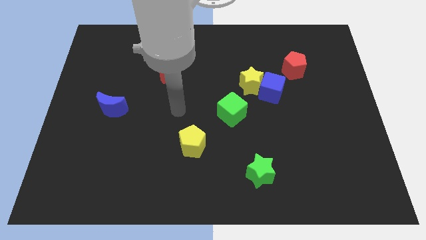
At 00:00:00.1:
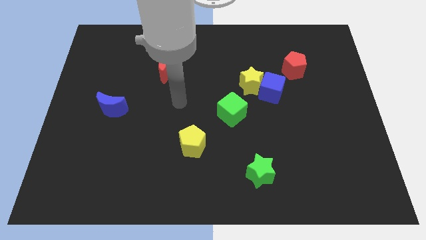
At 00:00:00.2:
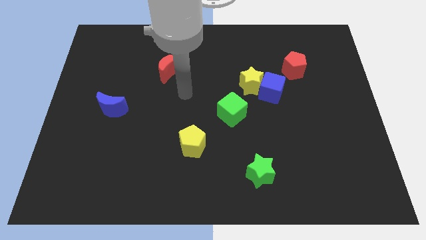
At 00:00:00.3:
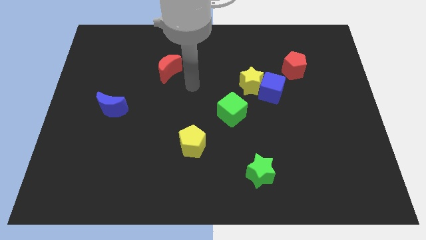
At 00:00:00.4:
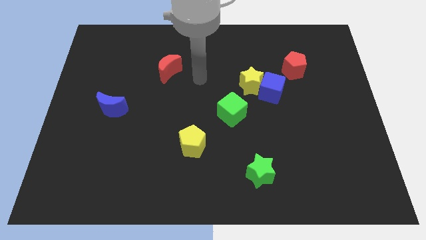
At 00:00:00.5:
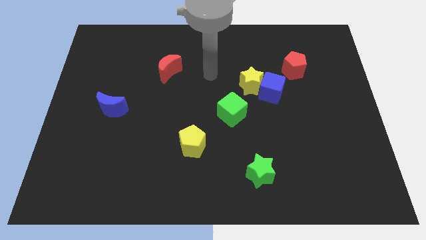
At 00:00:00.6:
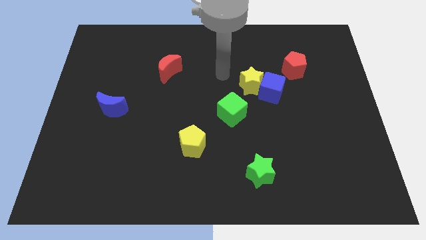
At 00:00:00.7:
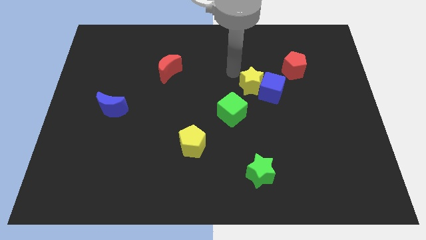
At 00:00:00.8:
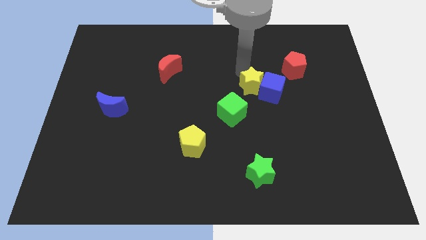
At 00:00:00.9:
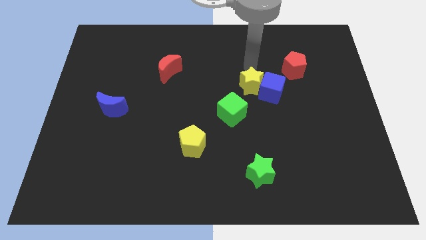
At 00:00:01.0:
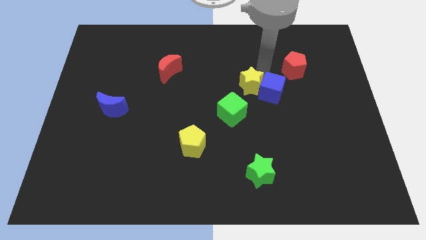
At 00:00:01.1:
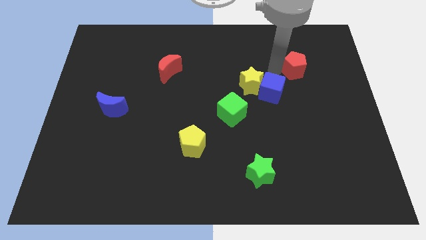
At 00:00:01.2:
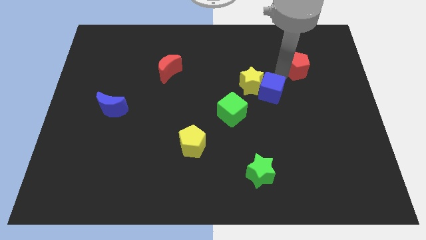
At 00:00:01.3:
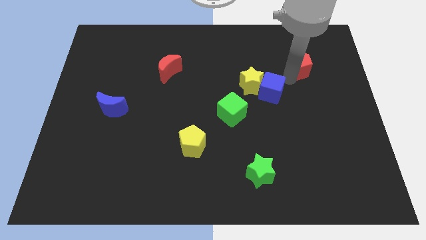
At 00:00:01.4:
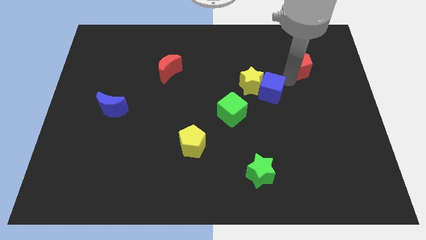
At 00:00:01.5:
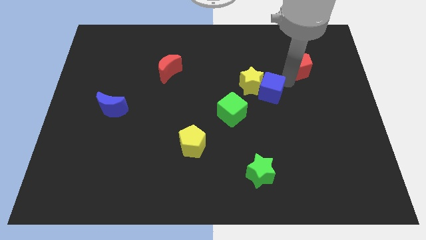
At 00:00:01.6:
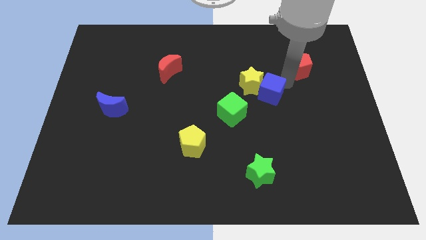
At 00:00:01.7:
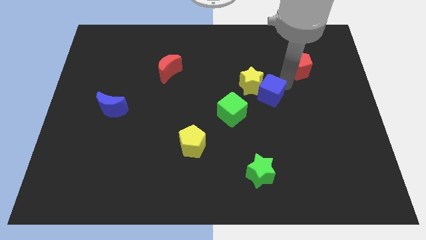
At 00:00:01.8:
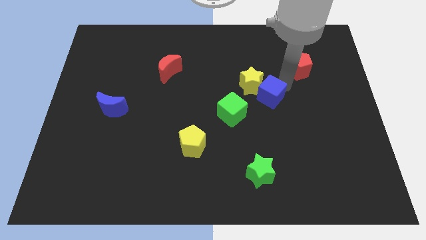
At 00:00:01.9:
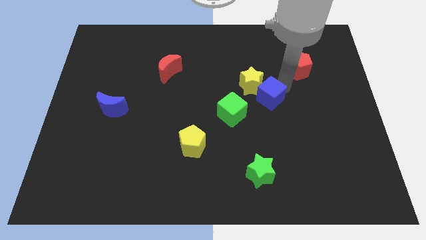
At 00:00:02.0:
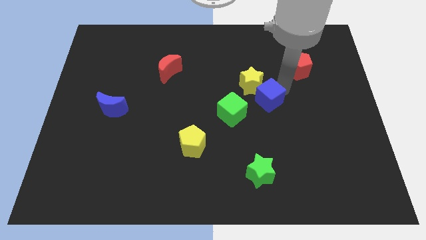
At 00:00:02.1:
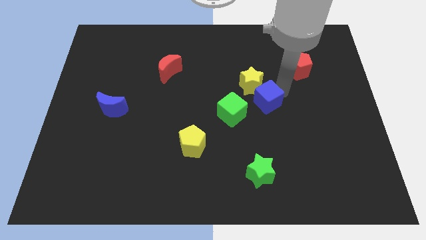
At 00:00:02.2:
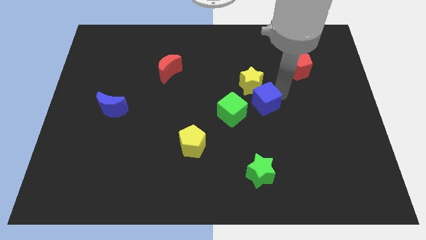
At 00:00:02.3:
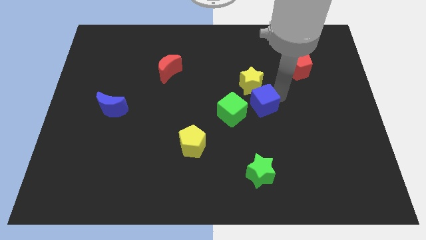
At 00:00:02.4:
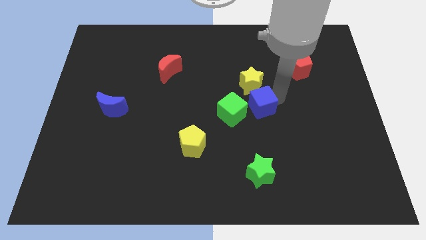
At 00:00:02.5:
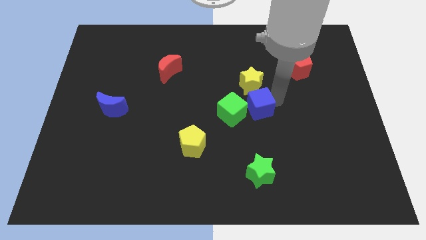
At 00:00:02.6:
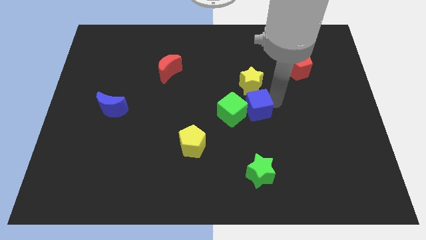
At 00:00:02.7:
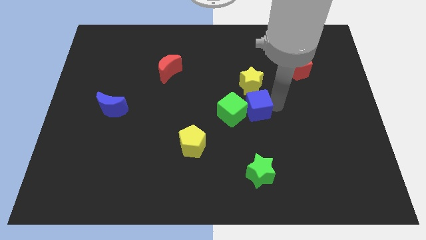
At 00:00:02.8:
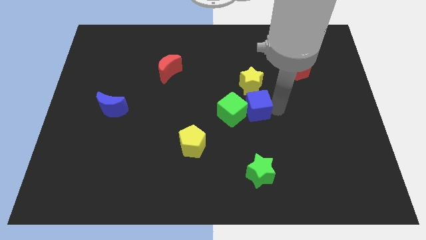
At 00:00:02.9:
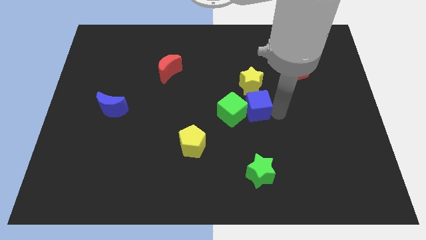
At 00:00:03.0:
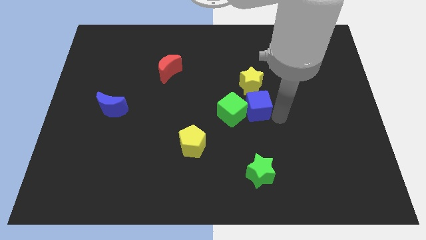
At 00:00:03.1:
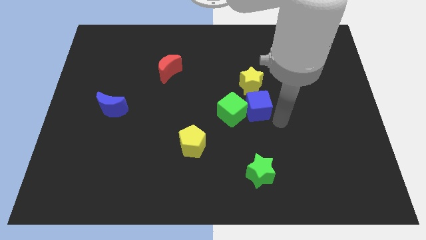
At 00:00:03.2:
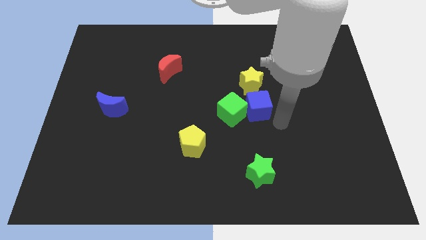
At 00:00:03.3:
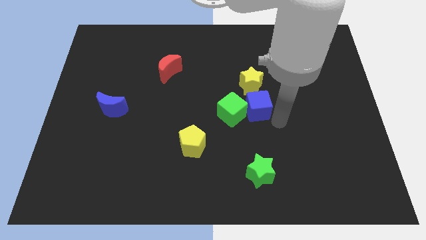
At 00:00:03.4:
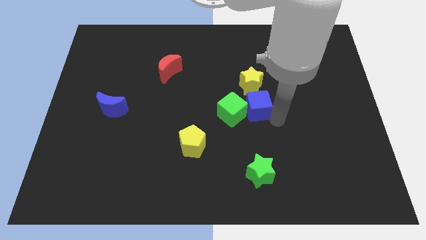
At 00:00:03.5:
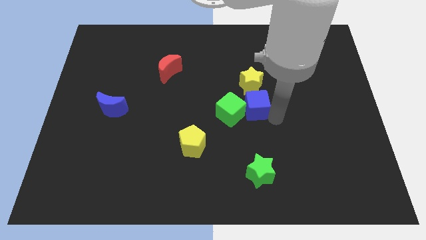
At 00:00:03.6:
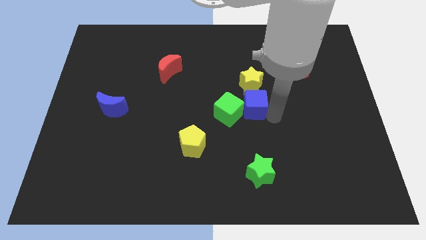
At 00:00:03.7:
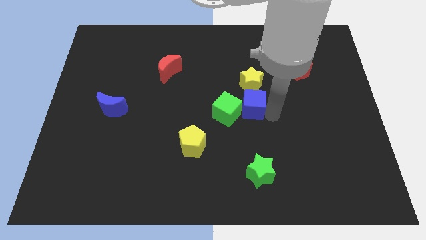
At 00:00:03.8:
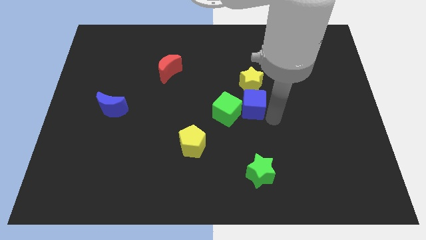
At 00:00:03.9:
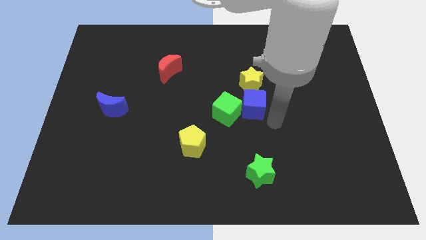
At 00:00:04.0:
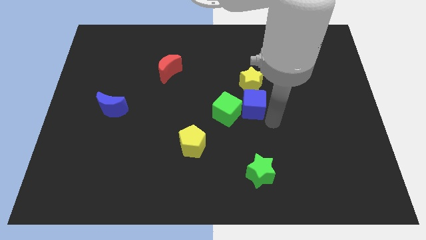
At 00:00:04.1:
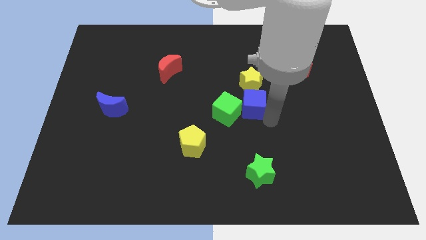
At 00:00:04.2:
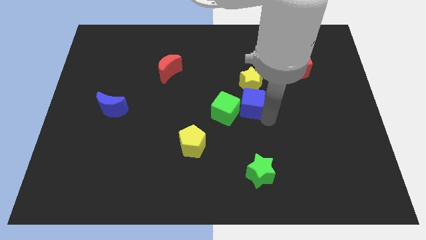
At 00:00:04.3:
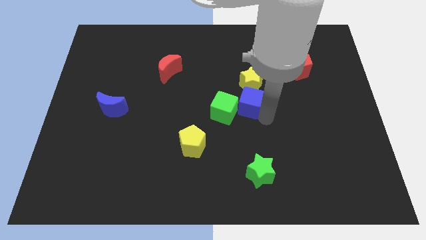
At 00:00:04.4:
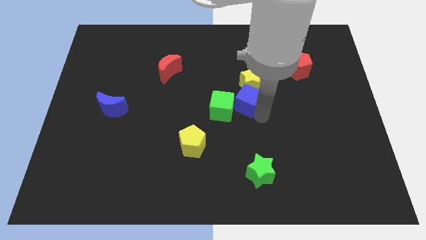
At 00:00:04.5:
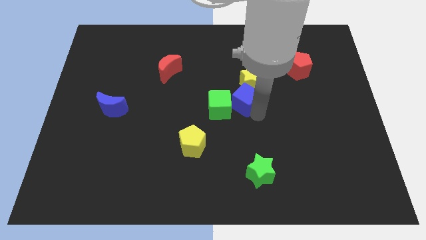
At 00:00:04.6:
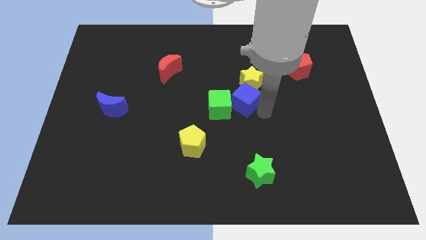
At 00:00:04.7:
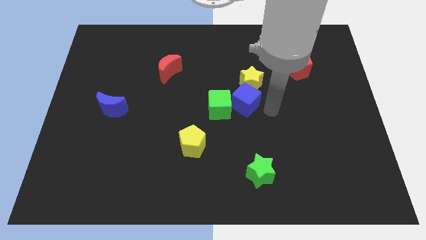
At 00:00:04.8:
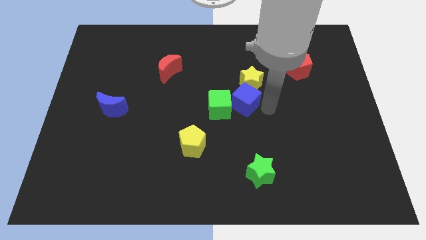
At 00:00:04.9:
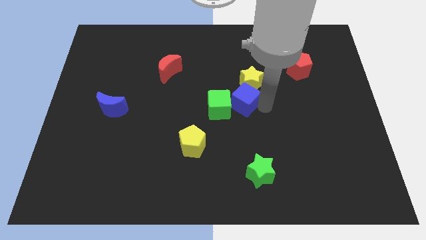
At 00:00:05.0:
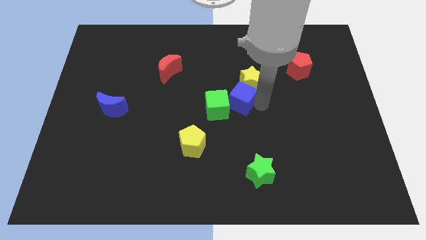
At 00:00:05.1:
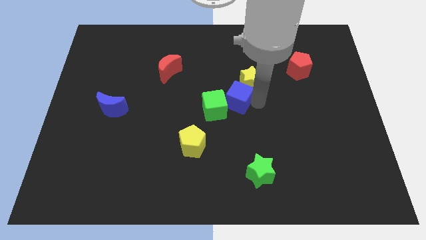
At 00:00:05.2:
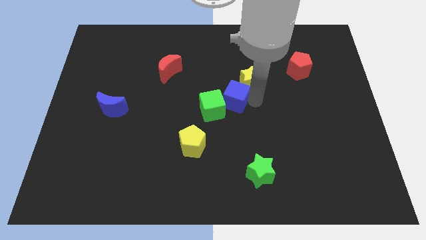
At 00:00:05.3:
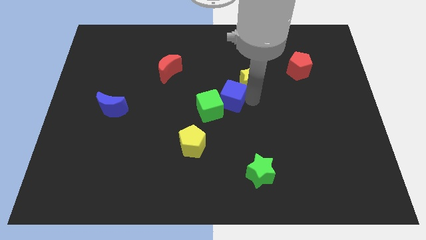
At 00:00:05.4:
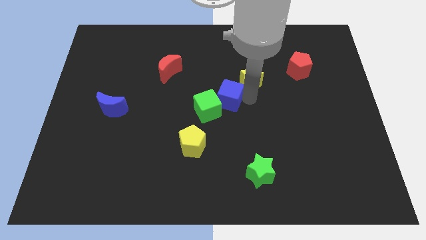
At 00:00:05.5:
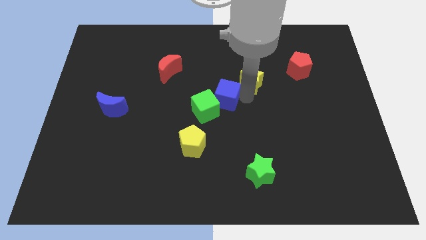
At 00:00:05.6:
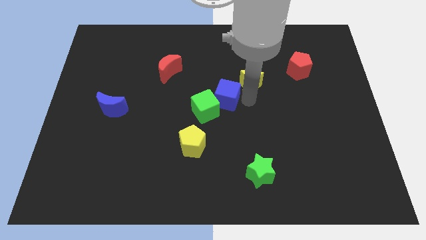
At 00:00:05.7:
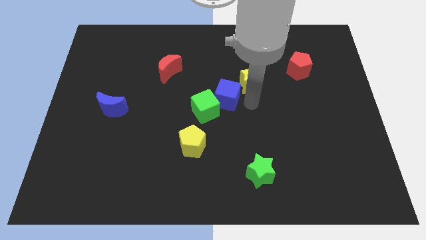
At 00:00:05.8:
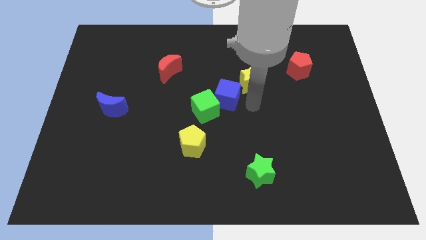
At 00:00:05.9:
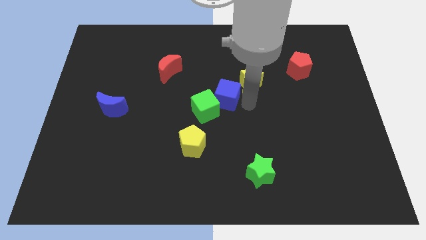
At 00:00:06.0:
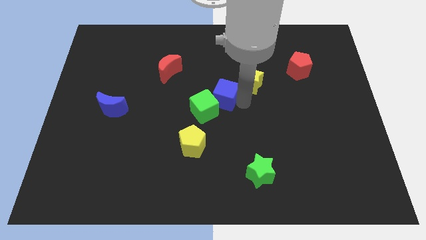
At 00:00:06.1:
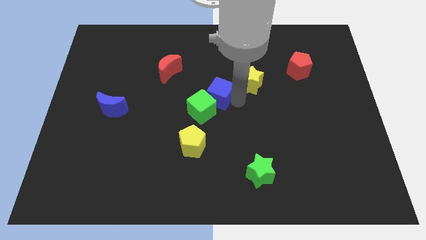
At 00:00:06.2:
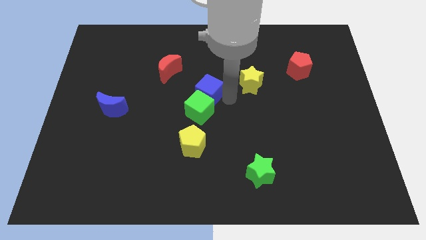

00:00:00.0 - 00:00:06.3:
push the blue cube to the bottom right of the red moon

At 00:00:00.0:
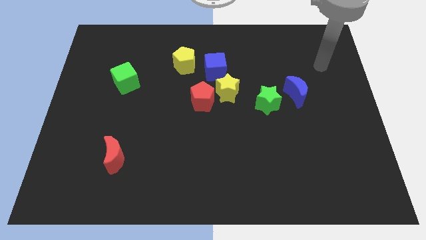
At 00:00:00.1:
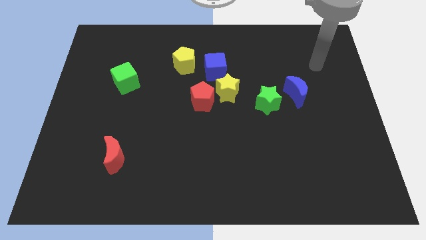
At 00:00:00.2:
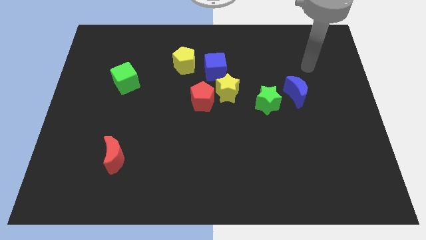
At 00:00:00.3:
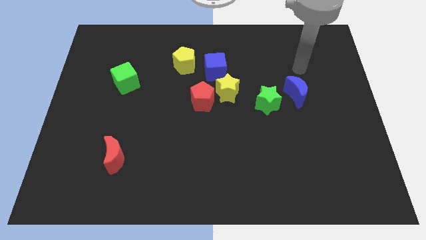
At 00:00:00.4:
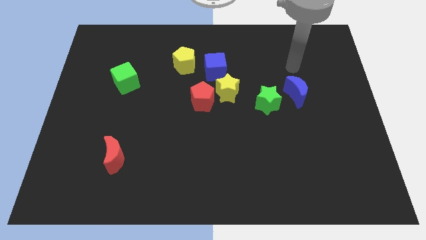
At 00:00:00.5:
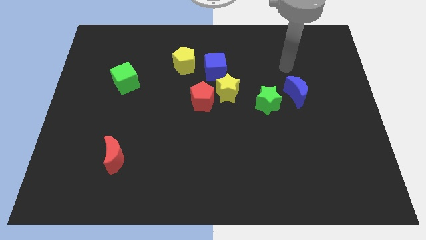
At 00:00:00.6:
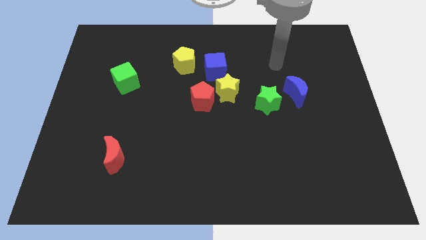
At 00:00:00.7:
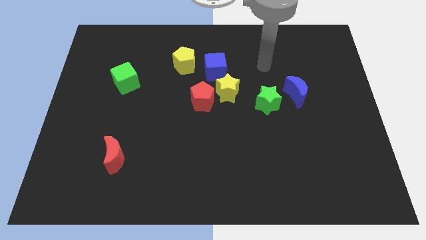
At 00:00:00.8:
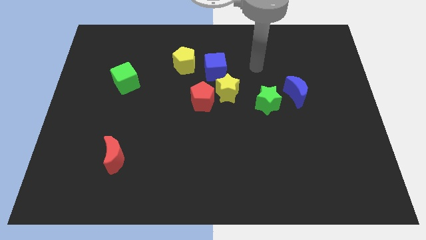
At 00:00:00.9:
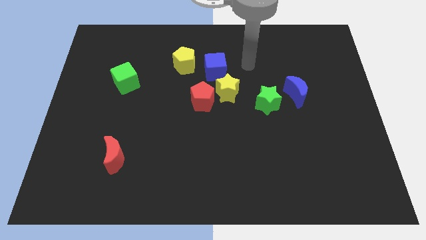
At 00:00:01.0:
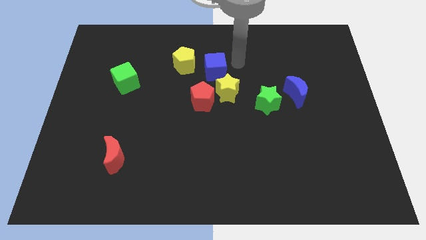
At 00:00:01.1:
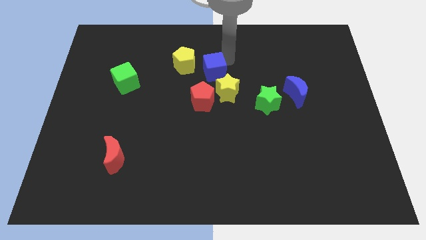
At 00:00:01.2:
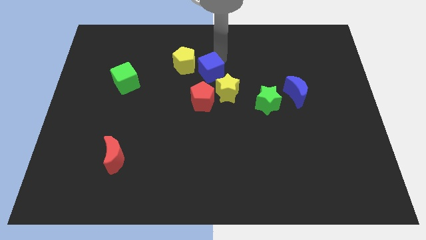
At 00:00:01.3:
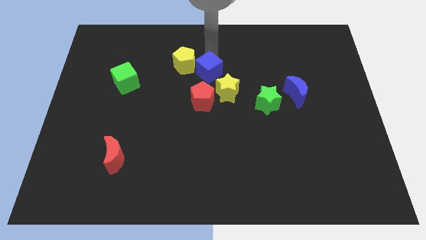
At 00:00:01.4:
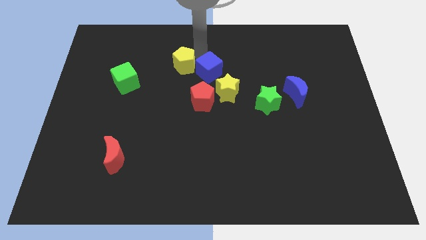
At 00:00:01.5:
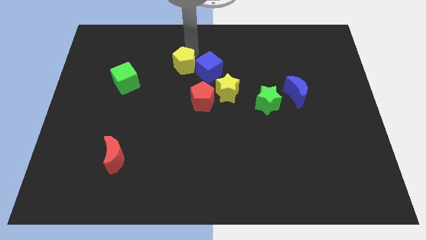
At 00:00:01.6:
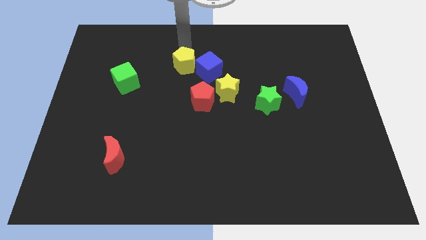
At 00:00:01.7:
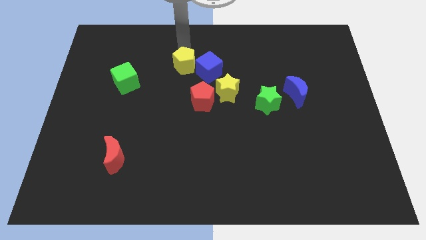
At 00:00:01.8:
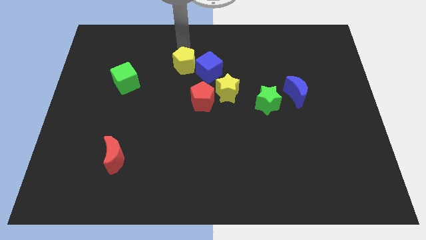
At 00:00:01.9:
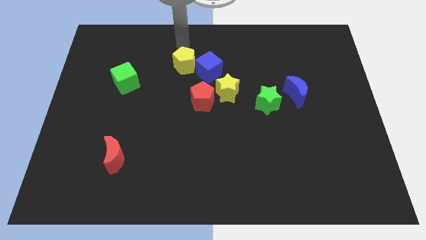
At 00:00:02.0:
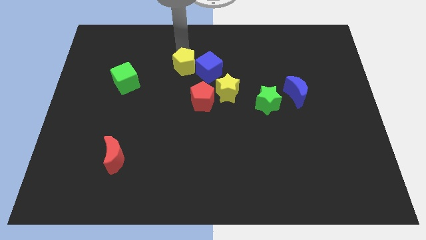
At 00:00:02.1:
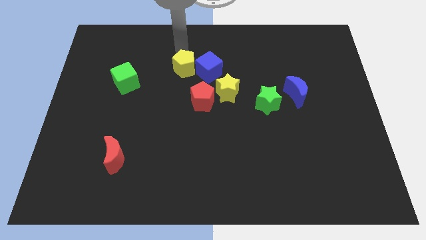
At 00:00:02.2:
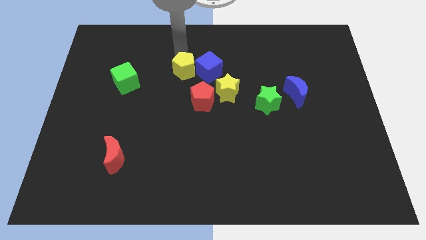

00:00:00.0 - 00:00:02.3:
put the yellow pentagon to the top left of the red pentagon
